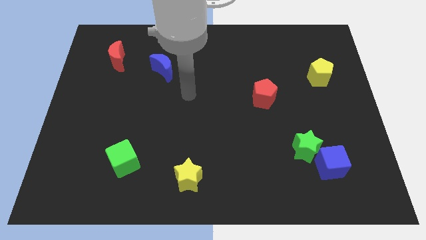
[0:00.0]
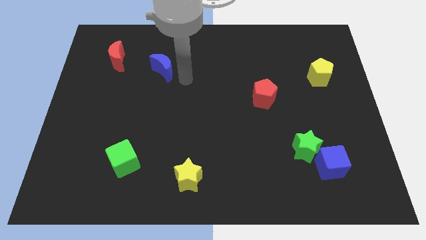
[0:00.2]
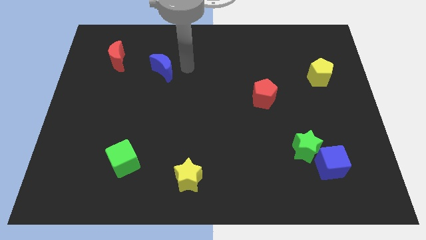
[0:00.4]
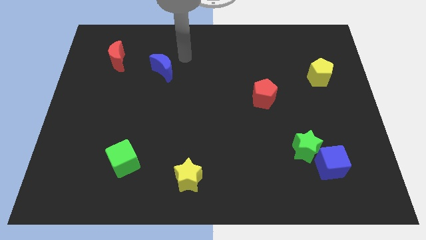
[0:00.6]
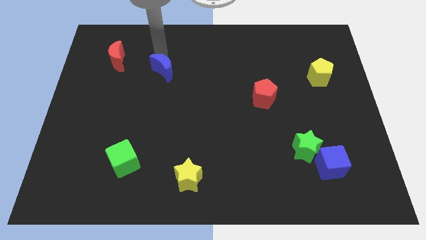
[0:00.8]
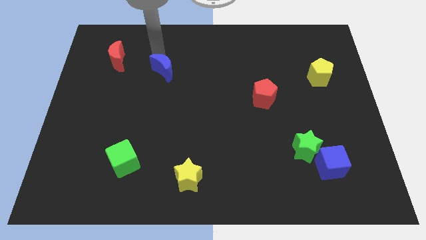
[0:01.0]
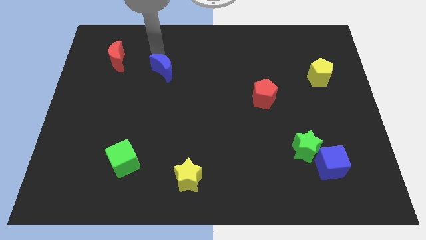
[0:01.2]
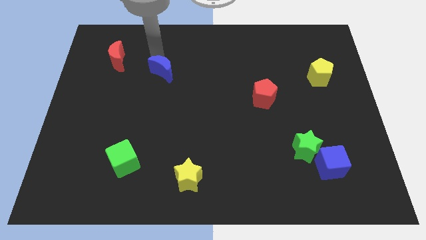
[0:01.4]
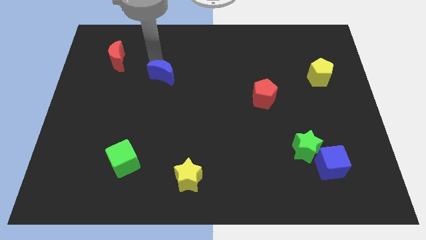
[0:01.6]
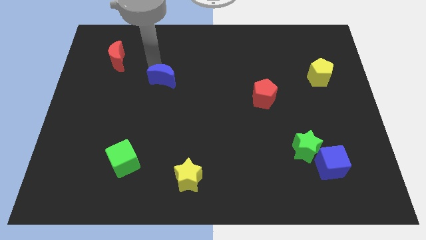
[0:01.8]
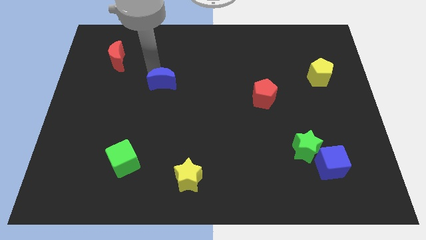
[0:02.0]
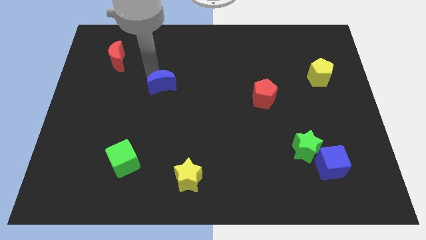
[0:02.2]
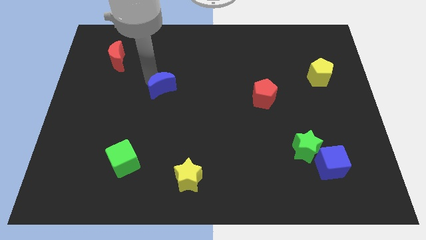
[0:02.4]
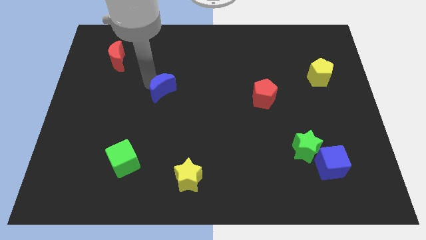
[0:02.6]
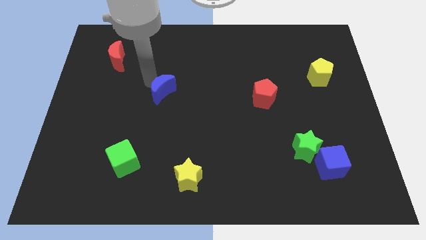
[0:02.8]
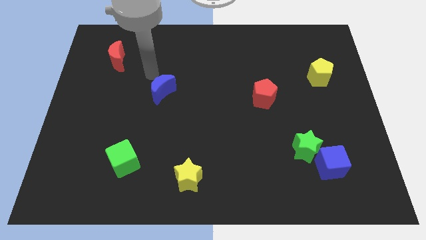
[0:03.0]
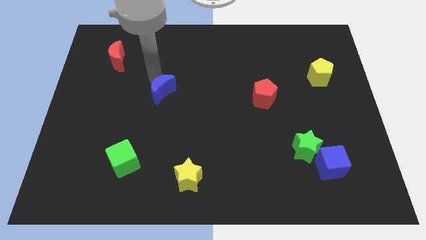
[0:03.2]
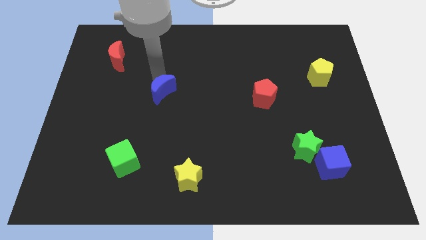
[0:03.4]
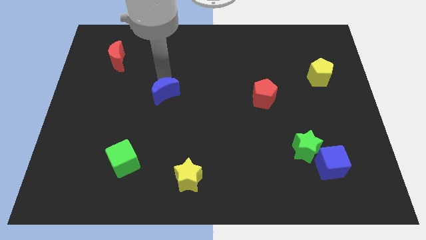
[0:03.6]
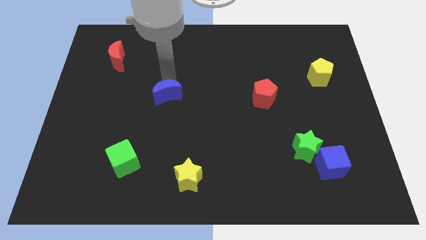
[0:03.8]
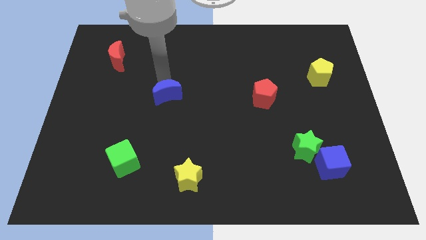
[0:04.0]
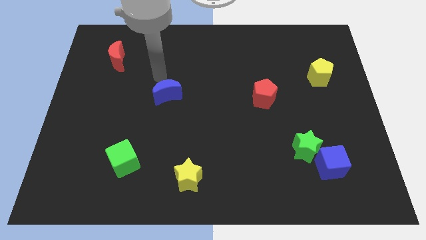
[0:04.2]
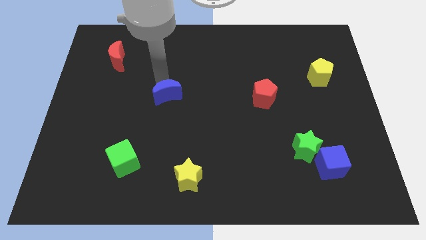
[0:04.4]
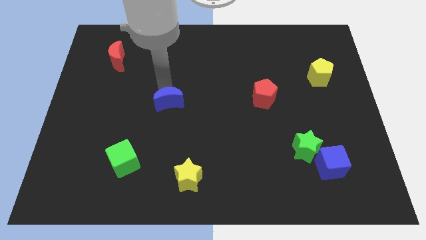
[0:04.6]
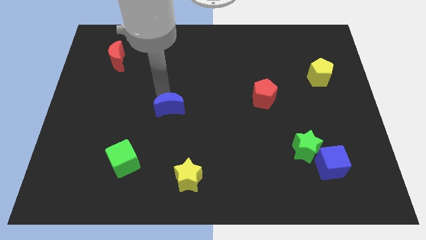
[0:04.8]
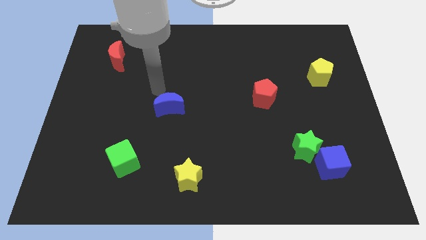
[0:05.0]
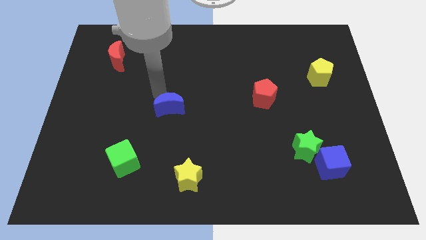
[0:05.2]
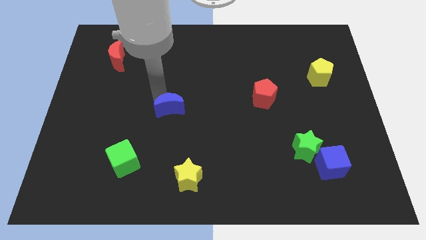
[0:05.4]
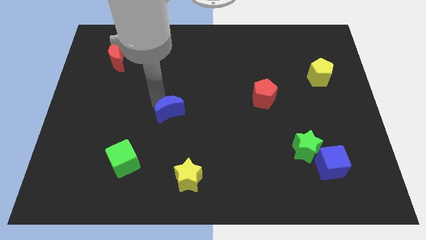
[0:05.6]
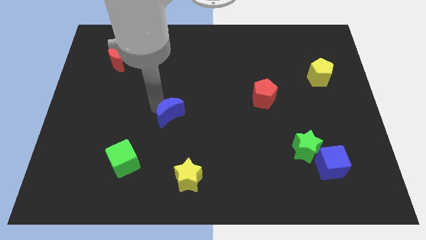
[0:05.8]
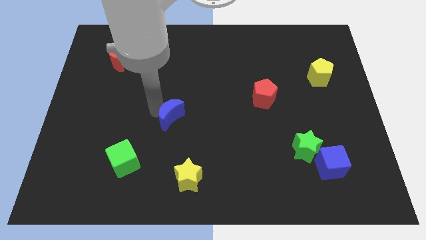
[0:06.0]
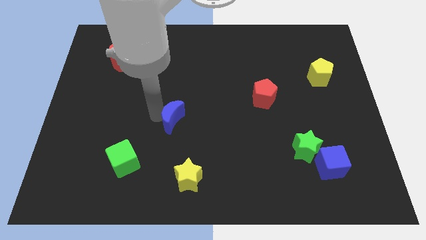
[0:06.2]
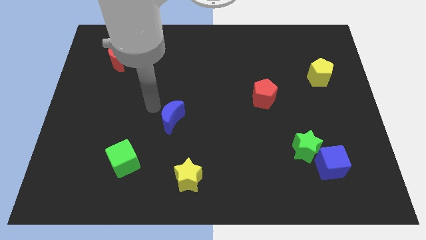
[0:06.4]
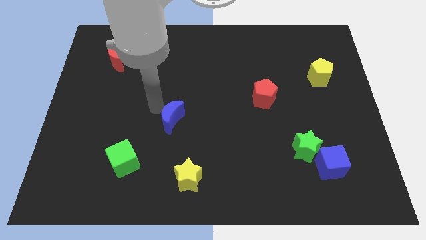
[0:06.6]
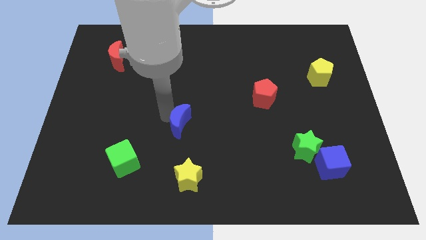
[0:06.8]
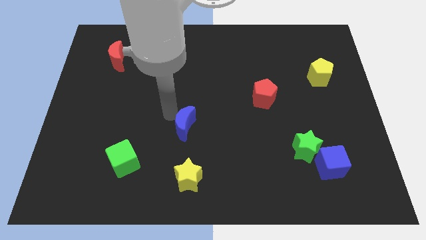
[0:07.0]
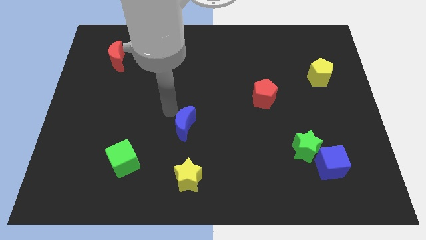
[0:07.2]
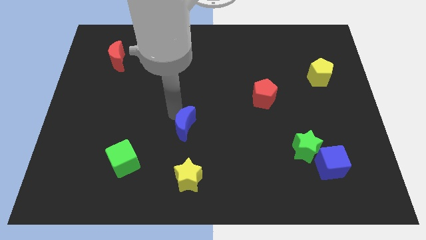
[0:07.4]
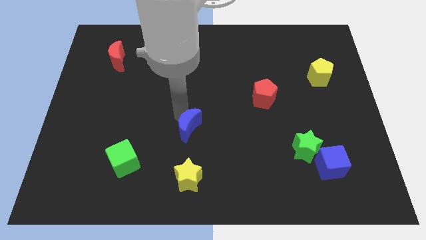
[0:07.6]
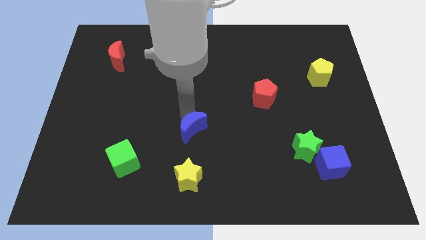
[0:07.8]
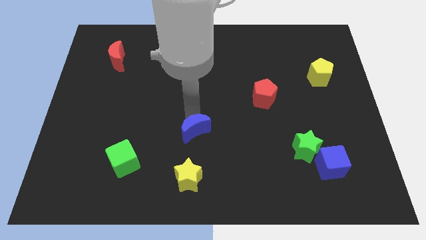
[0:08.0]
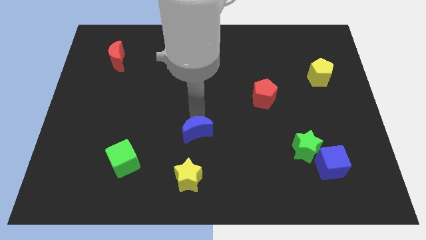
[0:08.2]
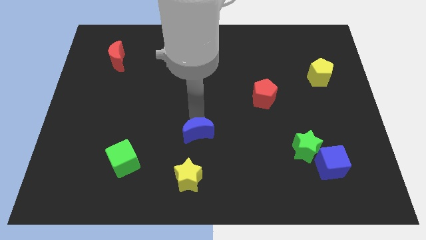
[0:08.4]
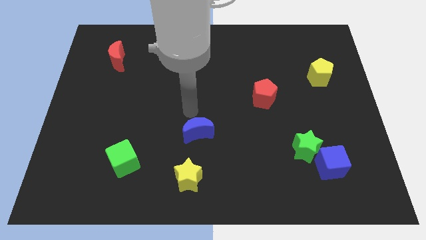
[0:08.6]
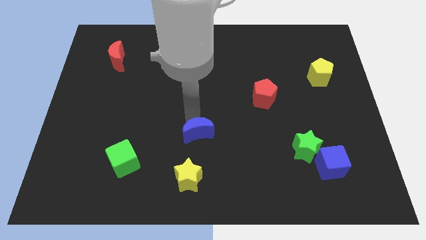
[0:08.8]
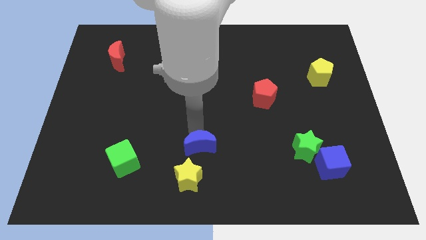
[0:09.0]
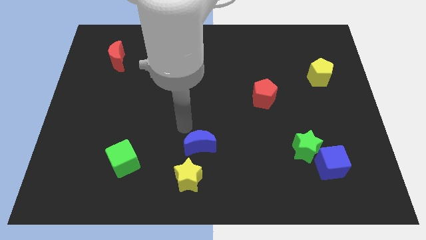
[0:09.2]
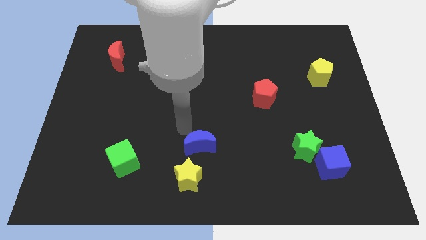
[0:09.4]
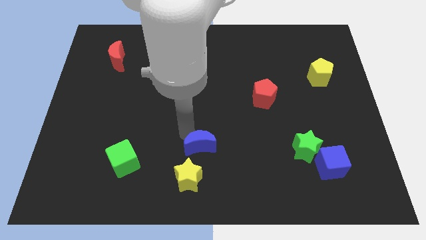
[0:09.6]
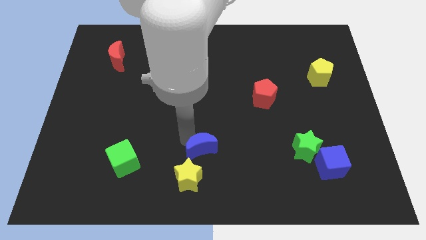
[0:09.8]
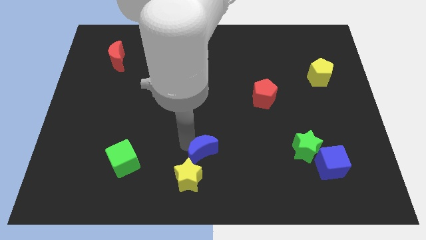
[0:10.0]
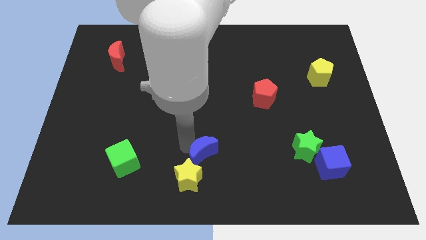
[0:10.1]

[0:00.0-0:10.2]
put the blue moon to the bottom
